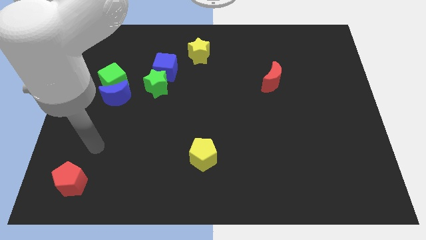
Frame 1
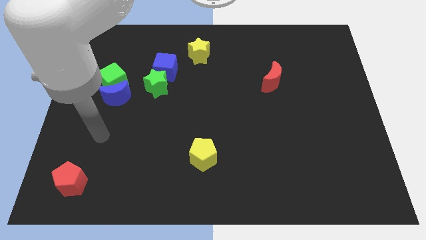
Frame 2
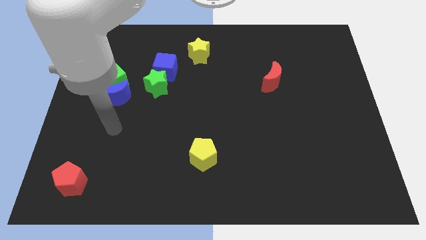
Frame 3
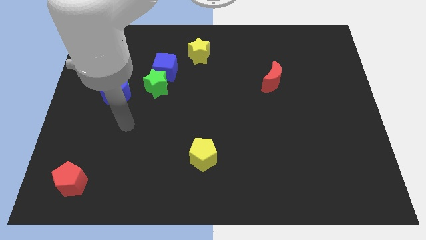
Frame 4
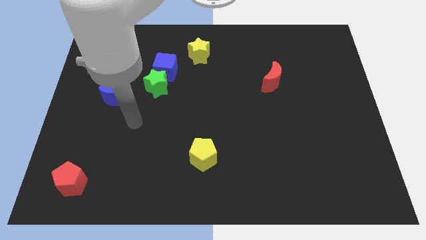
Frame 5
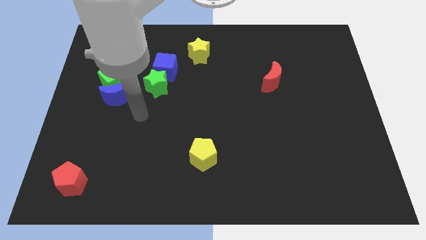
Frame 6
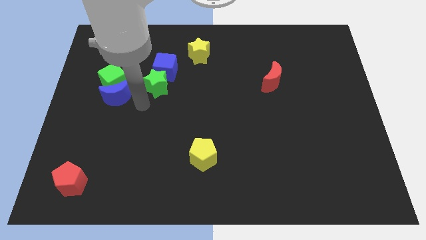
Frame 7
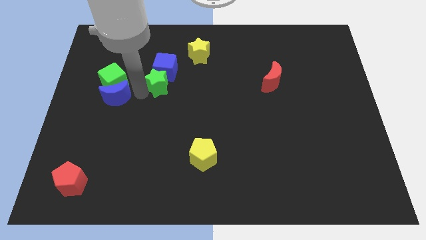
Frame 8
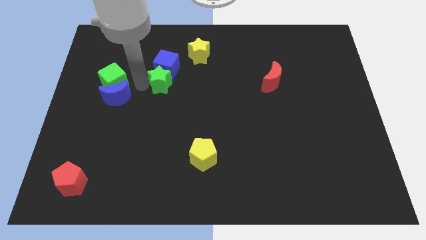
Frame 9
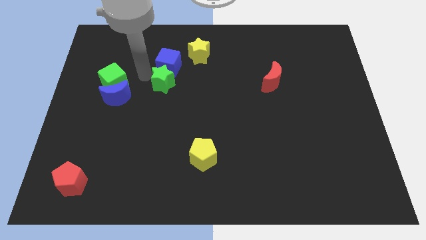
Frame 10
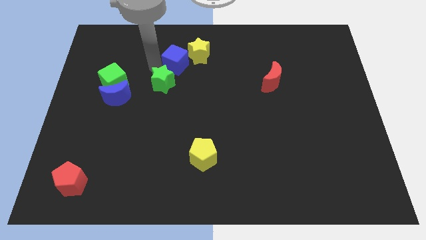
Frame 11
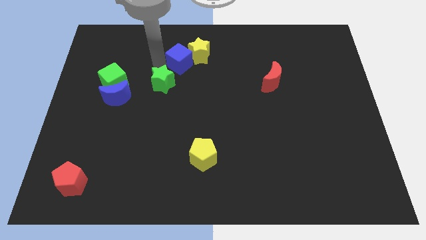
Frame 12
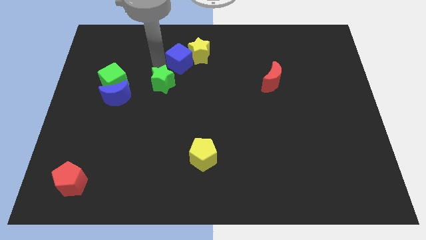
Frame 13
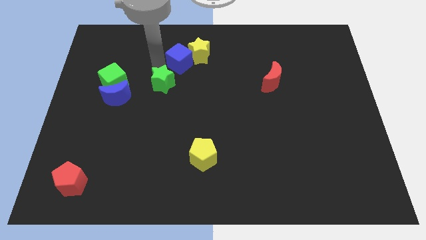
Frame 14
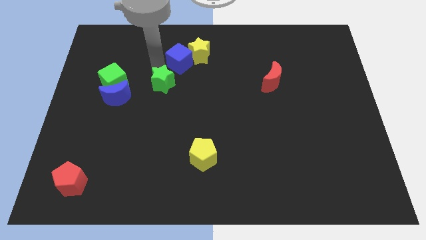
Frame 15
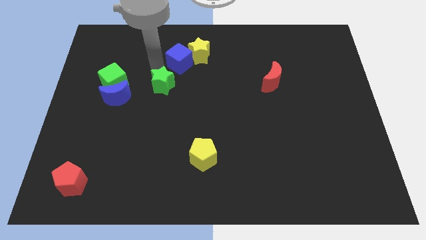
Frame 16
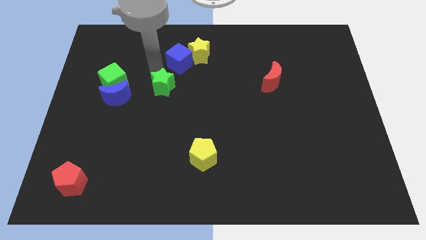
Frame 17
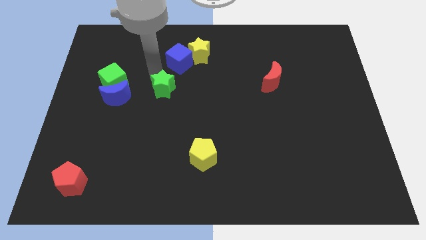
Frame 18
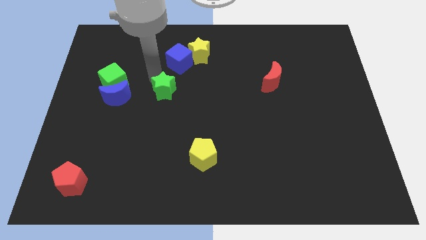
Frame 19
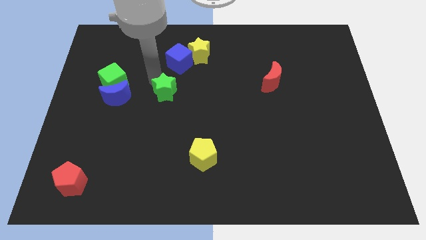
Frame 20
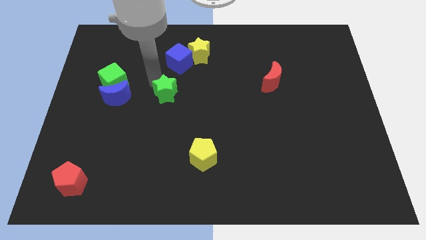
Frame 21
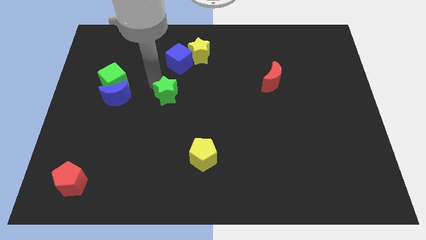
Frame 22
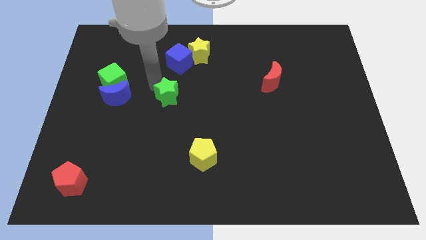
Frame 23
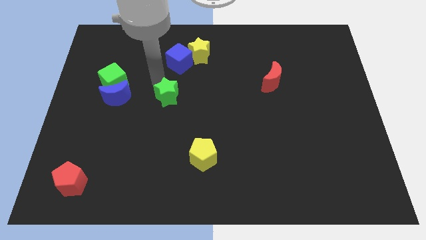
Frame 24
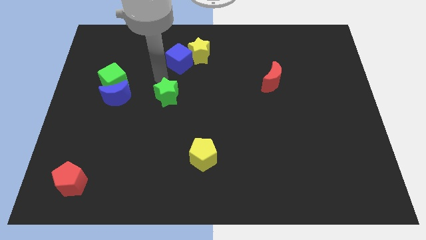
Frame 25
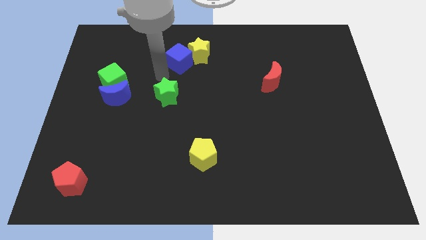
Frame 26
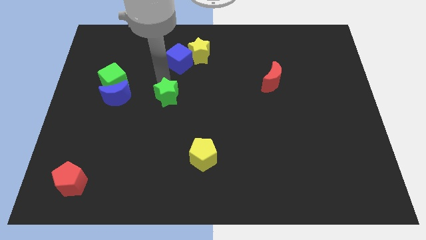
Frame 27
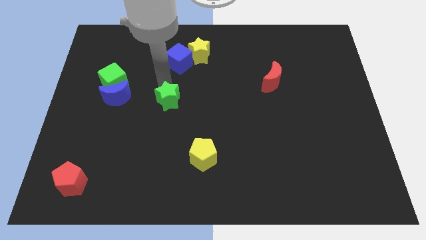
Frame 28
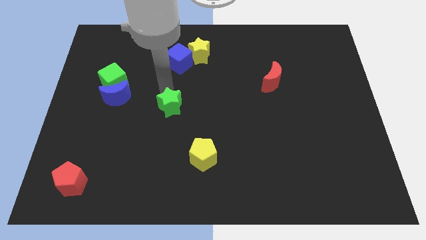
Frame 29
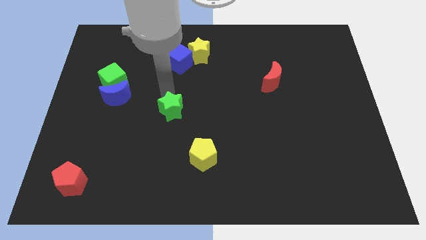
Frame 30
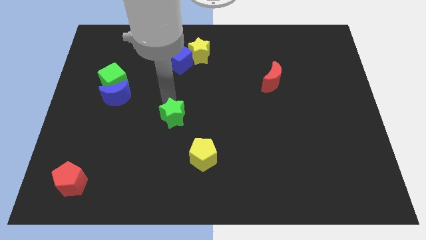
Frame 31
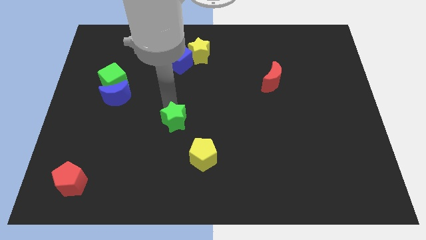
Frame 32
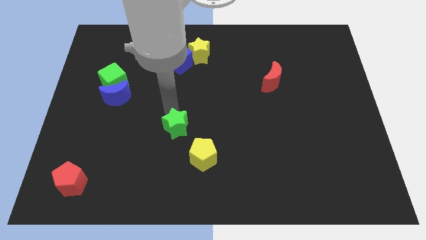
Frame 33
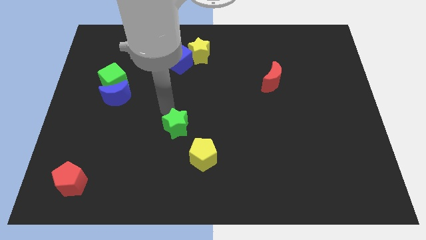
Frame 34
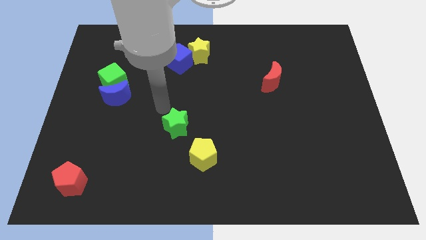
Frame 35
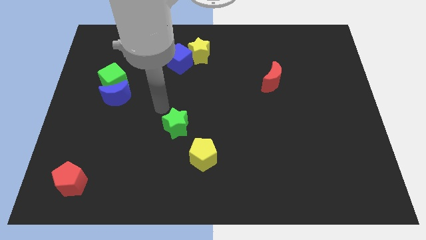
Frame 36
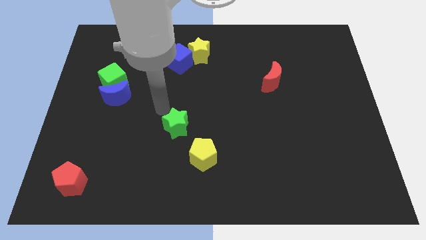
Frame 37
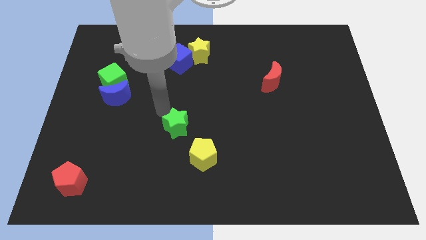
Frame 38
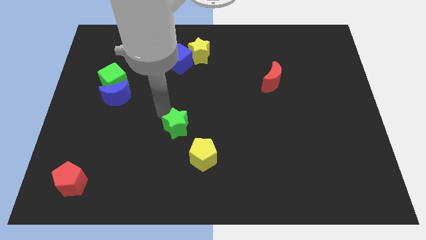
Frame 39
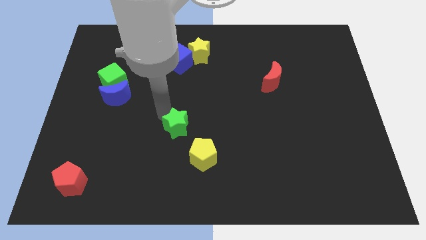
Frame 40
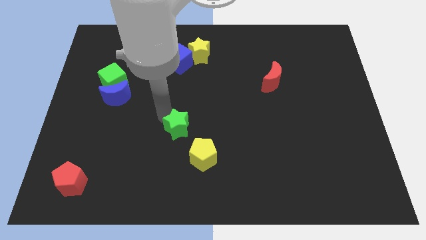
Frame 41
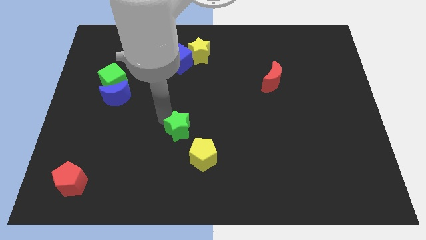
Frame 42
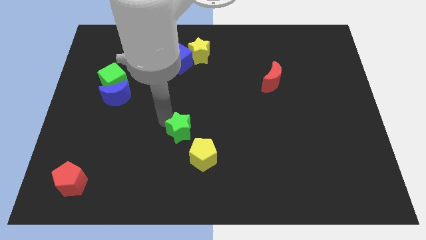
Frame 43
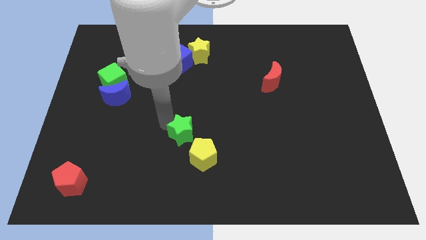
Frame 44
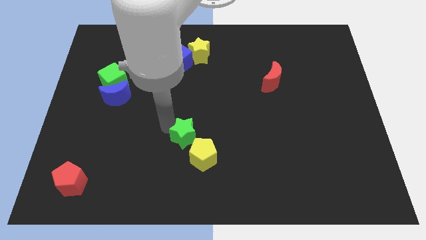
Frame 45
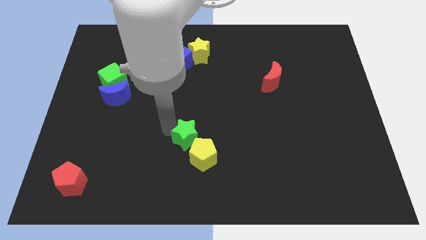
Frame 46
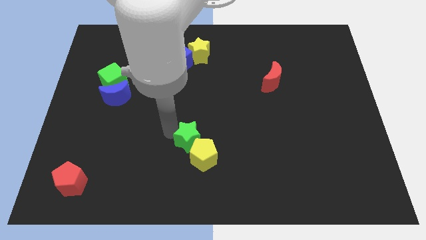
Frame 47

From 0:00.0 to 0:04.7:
put the green star next to the yellow pentagon

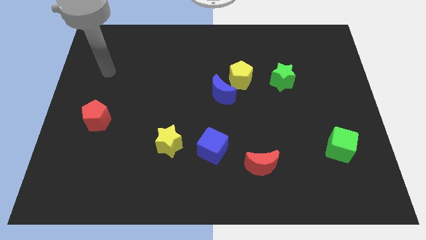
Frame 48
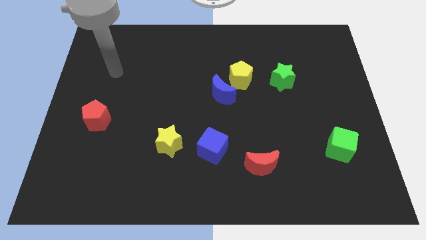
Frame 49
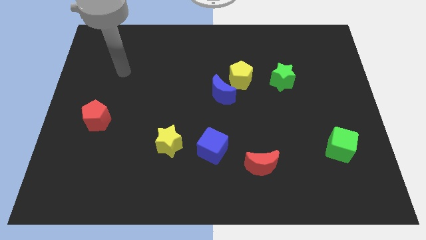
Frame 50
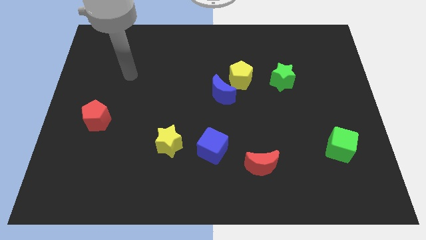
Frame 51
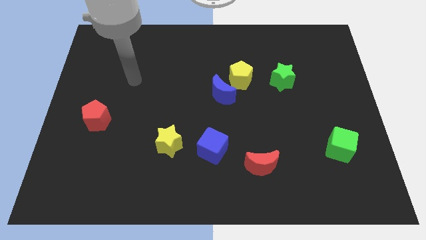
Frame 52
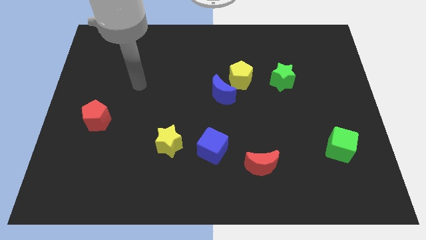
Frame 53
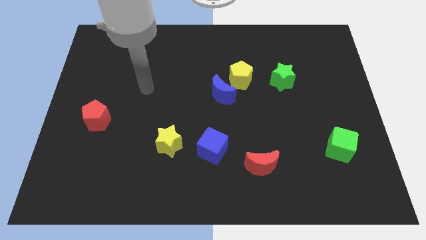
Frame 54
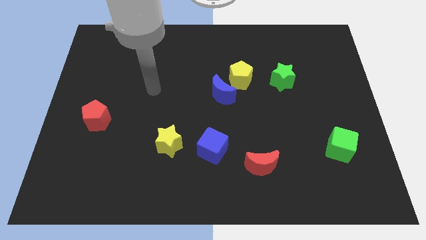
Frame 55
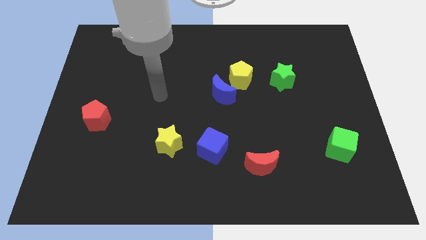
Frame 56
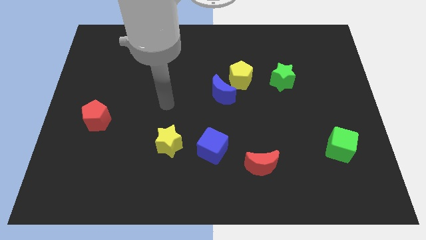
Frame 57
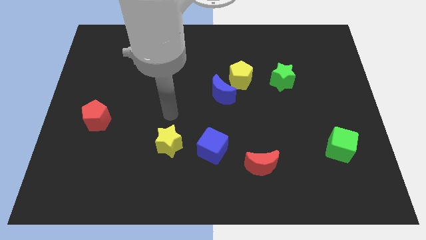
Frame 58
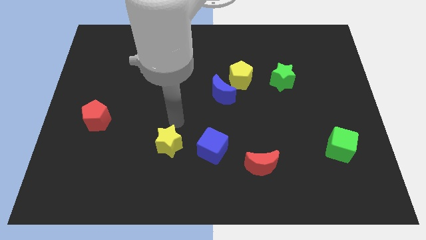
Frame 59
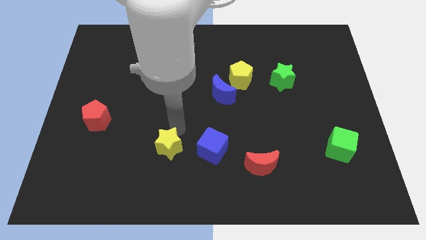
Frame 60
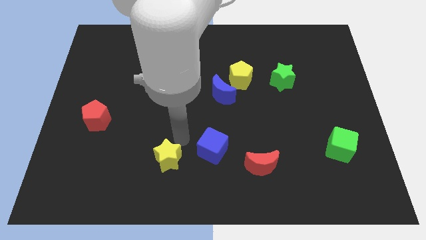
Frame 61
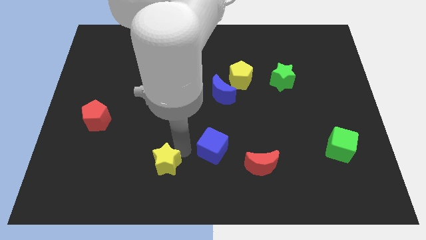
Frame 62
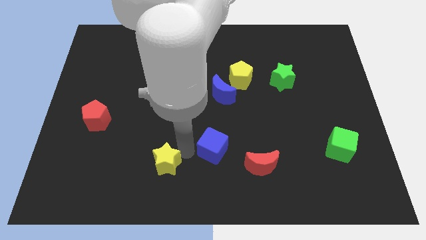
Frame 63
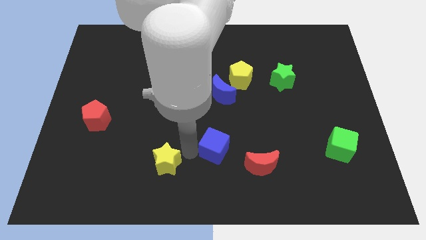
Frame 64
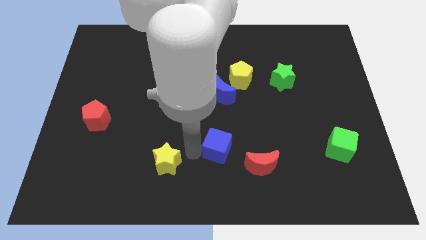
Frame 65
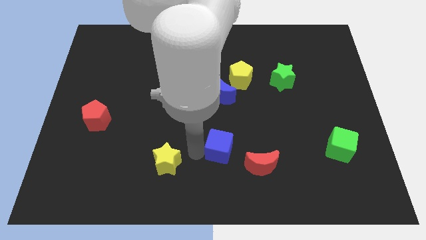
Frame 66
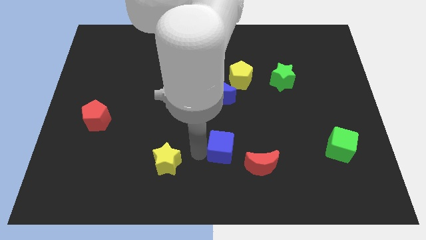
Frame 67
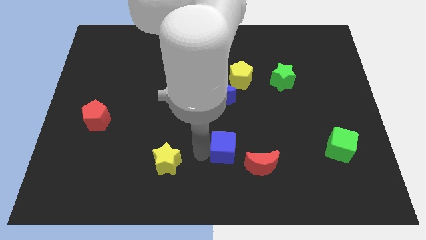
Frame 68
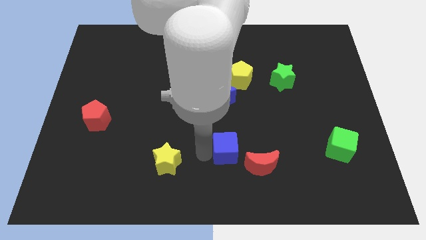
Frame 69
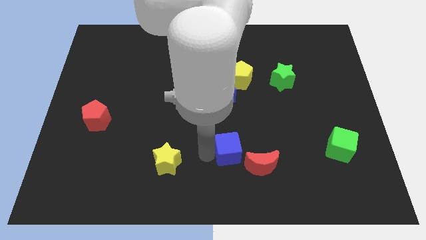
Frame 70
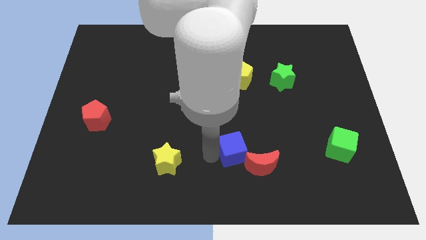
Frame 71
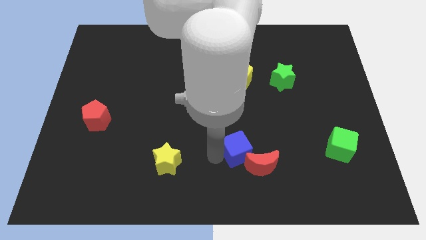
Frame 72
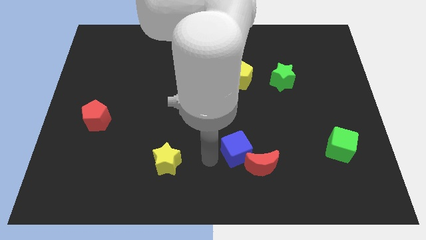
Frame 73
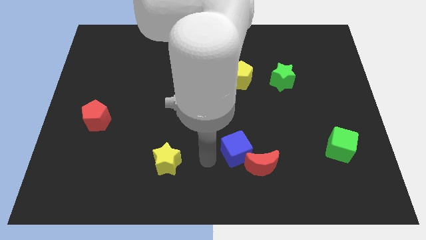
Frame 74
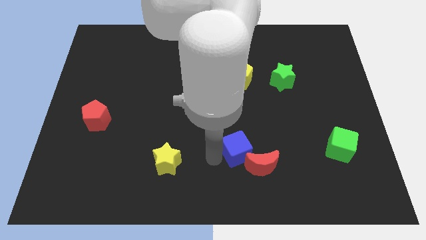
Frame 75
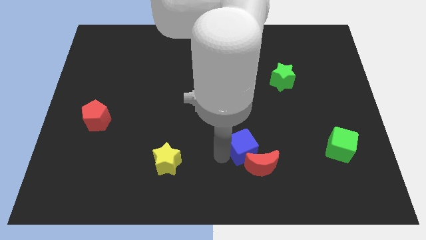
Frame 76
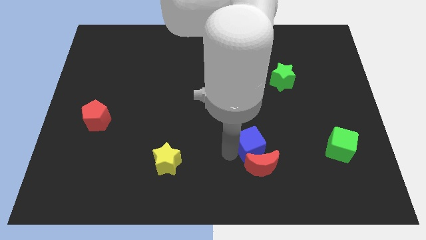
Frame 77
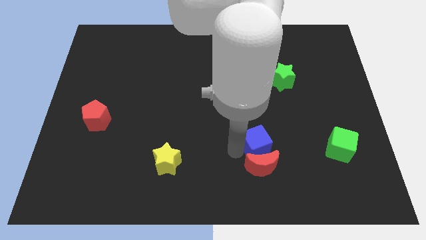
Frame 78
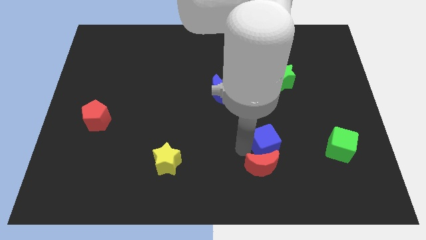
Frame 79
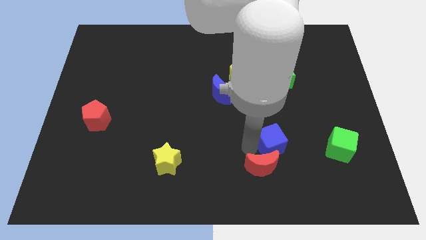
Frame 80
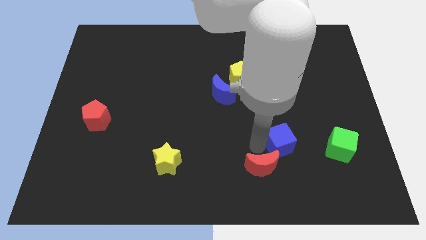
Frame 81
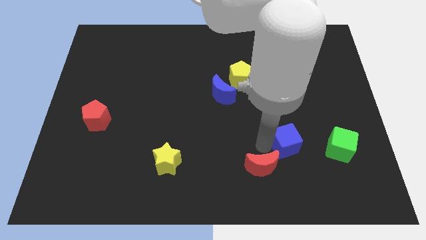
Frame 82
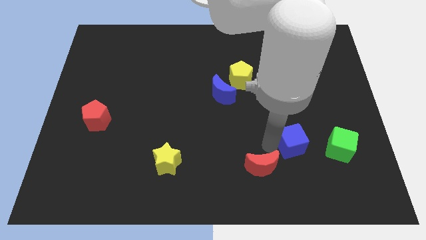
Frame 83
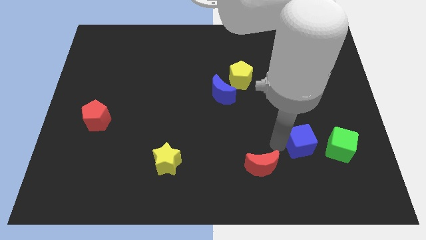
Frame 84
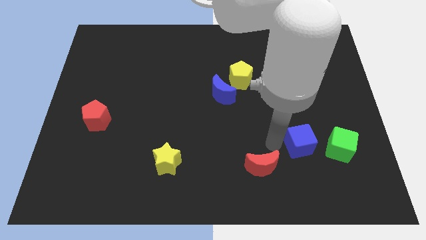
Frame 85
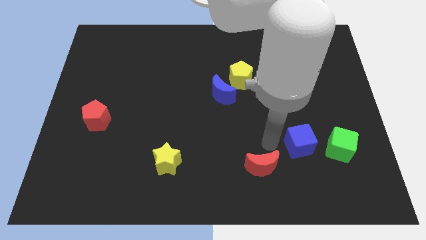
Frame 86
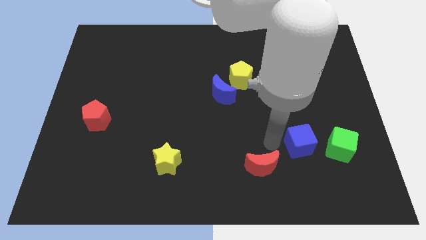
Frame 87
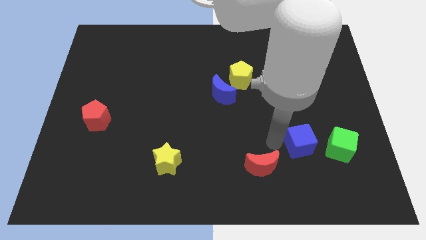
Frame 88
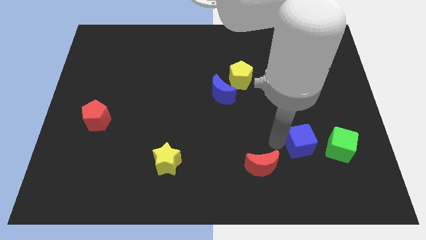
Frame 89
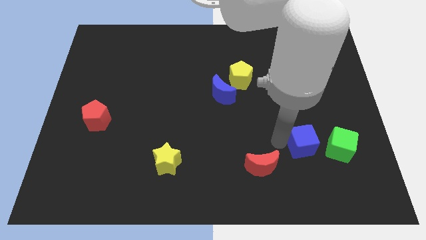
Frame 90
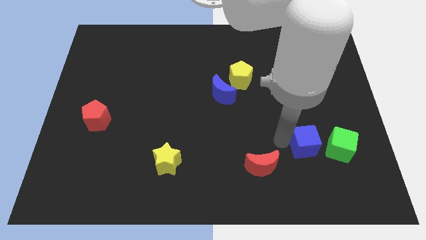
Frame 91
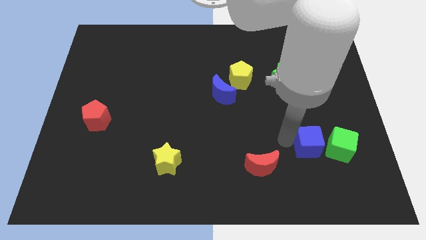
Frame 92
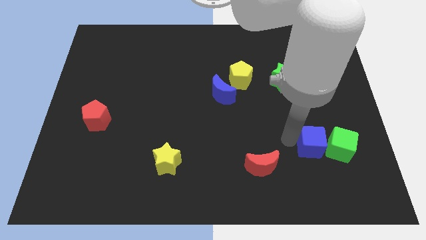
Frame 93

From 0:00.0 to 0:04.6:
slide the blue cube towards the green cube
